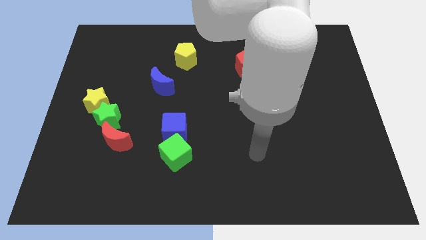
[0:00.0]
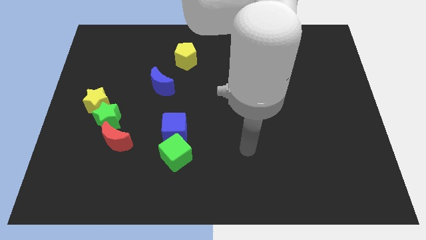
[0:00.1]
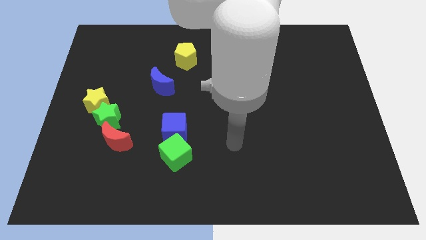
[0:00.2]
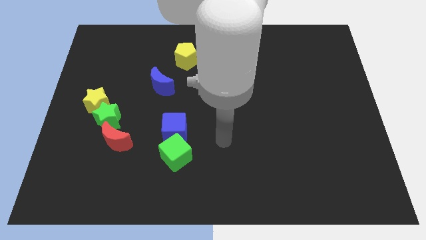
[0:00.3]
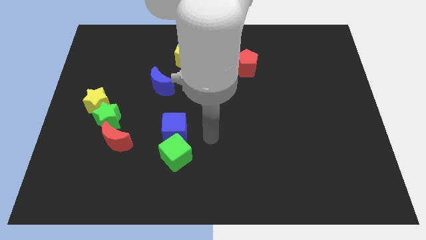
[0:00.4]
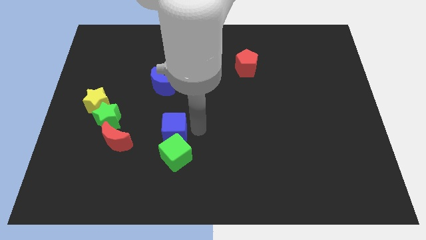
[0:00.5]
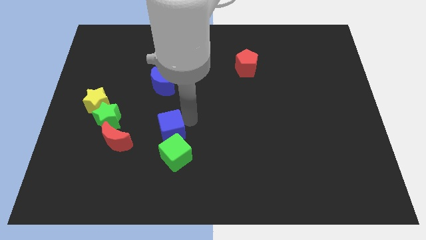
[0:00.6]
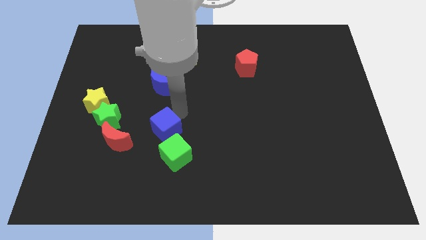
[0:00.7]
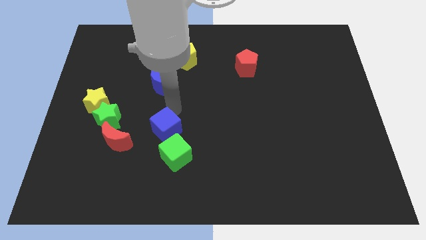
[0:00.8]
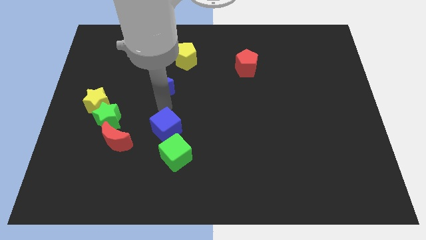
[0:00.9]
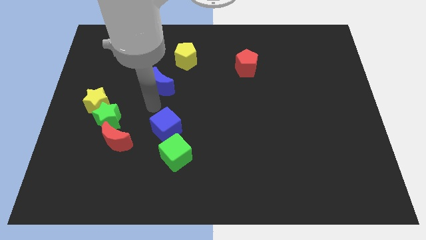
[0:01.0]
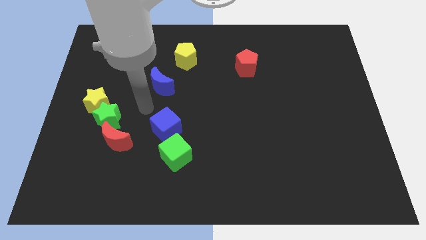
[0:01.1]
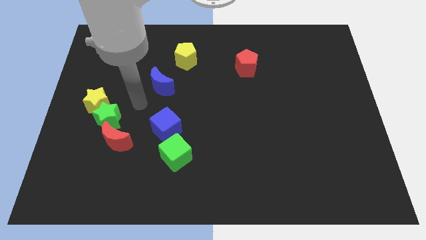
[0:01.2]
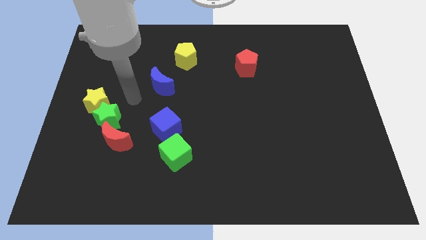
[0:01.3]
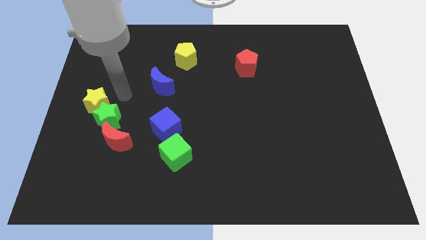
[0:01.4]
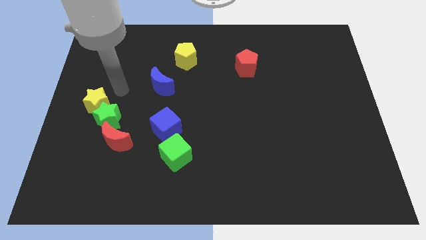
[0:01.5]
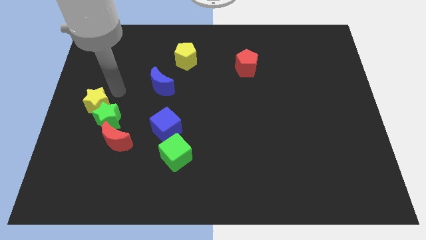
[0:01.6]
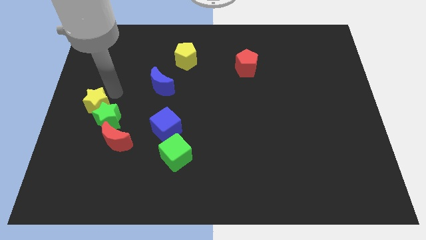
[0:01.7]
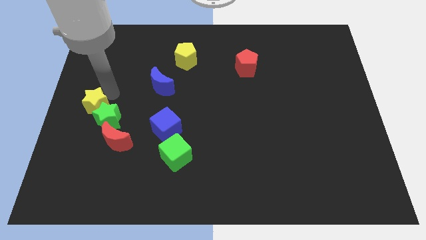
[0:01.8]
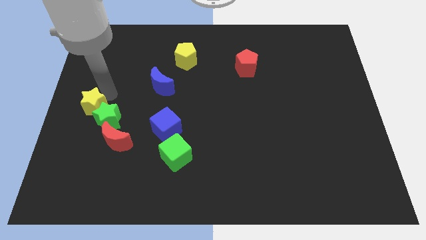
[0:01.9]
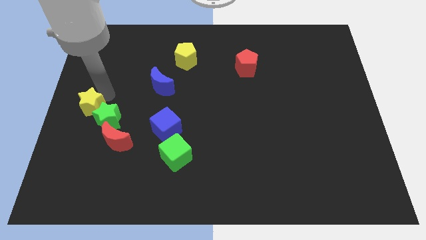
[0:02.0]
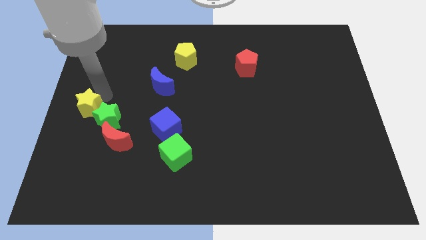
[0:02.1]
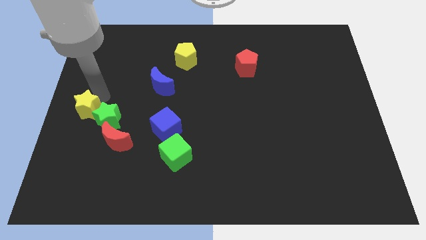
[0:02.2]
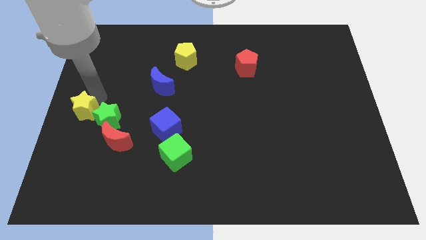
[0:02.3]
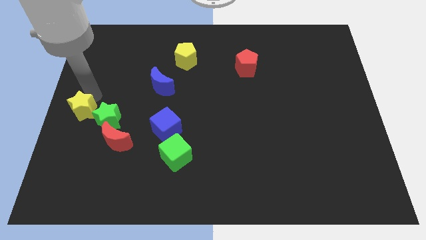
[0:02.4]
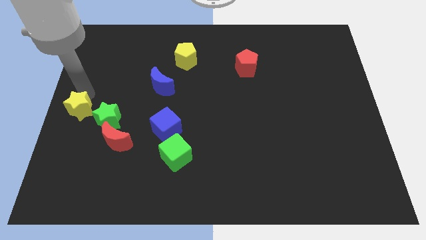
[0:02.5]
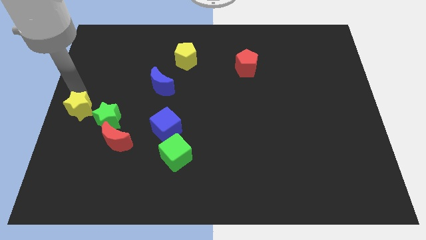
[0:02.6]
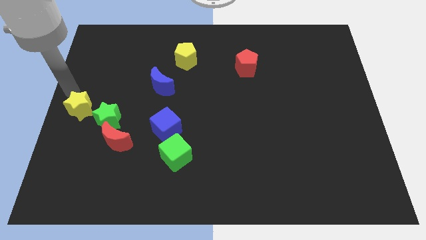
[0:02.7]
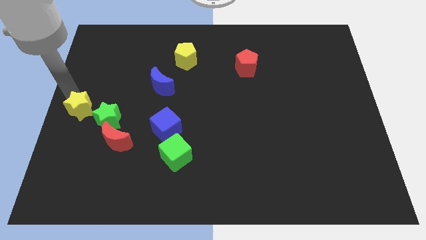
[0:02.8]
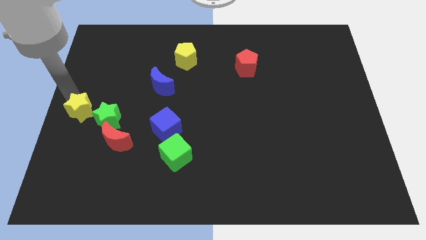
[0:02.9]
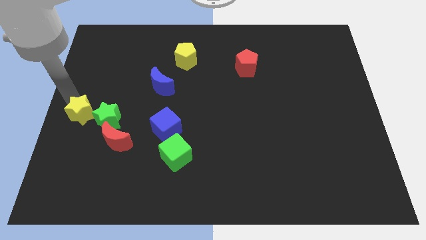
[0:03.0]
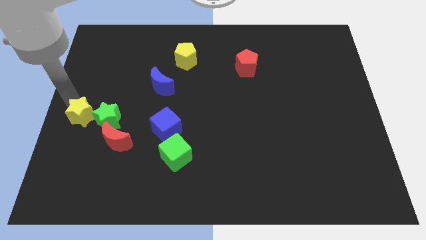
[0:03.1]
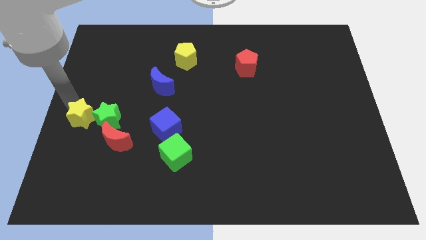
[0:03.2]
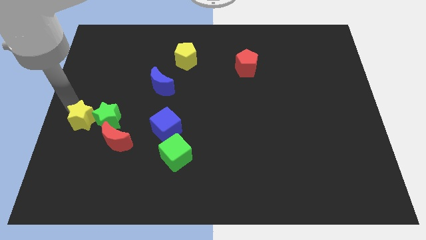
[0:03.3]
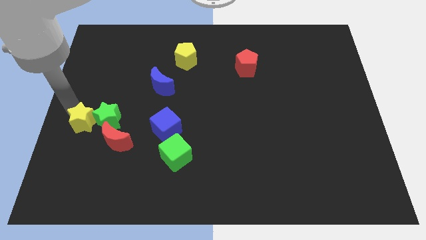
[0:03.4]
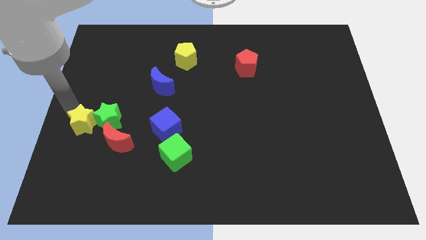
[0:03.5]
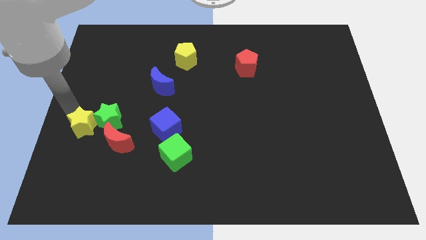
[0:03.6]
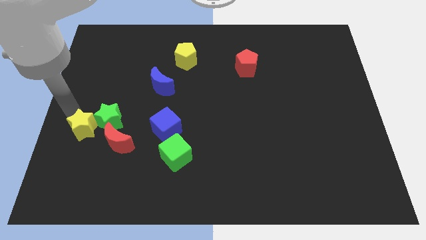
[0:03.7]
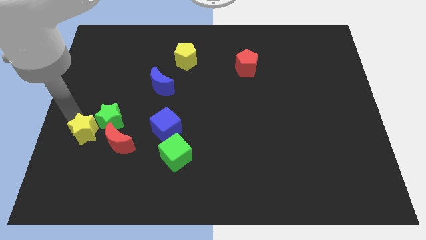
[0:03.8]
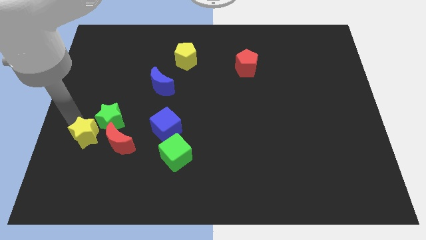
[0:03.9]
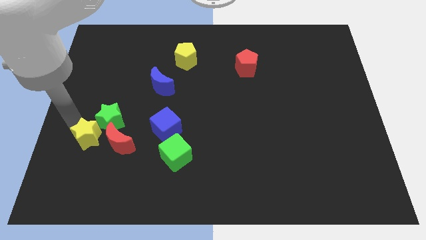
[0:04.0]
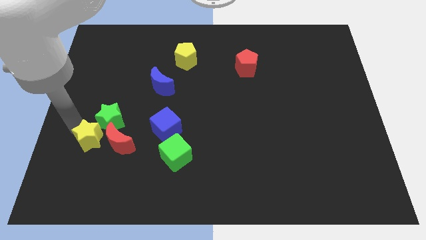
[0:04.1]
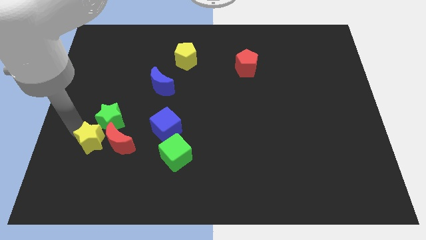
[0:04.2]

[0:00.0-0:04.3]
slide the yellow star towards the red moon

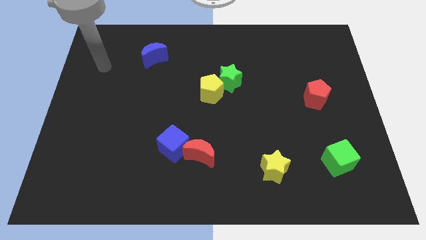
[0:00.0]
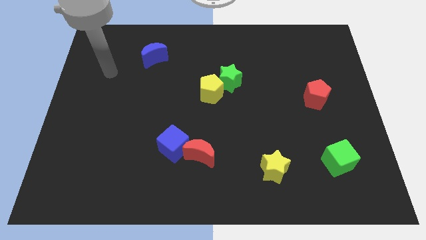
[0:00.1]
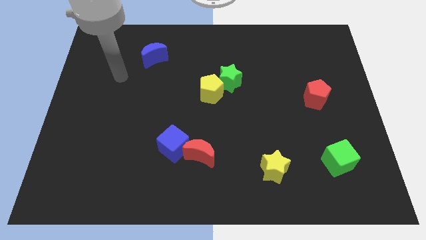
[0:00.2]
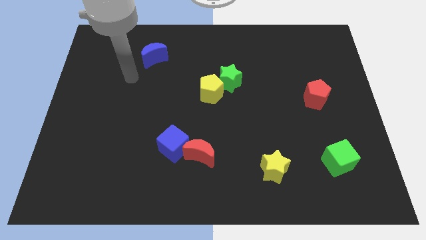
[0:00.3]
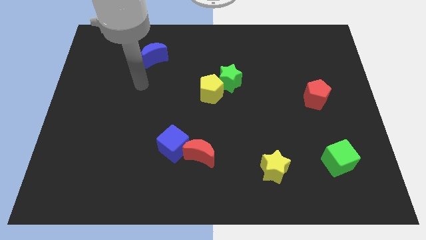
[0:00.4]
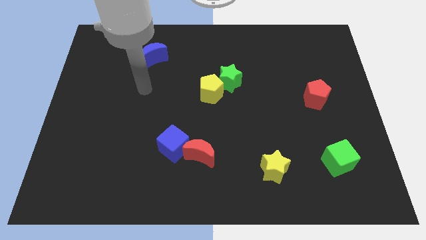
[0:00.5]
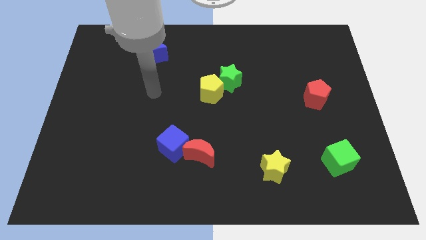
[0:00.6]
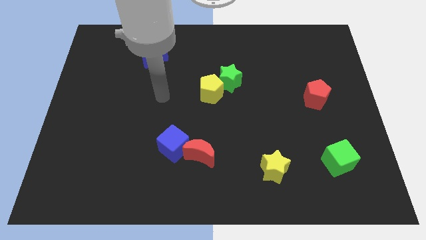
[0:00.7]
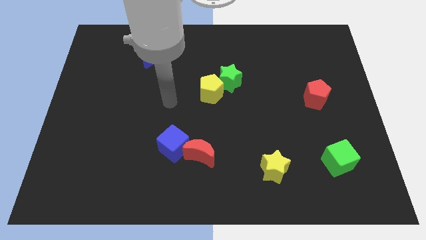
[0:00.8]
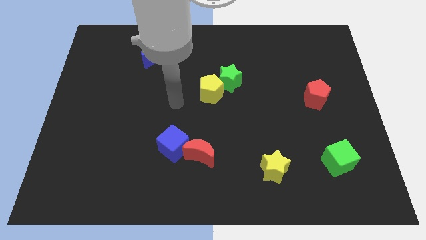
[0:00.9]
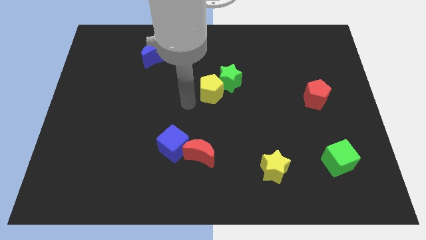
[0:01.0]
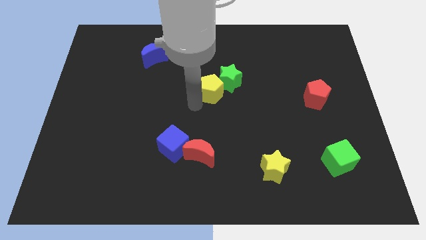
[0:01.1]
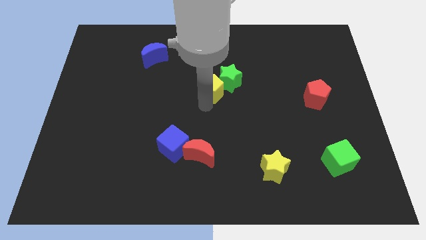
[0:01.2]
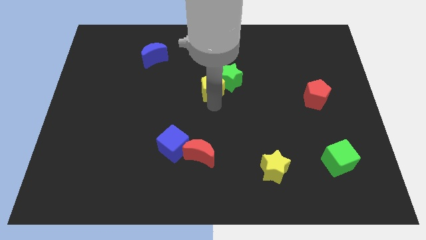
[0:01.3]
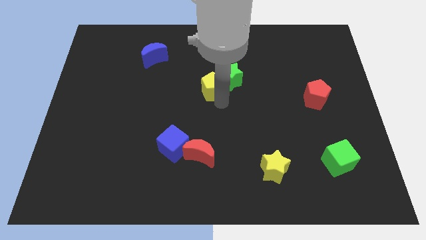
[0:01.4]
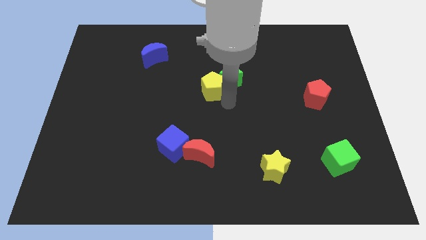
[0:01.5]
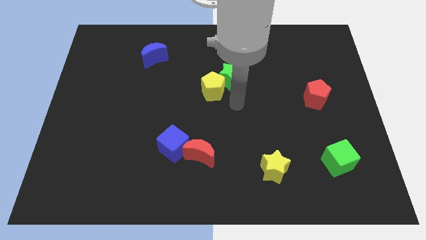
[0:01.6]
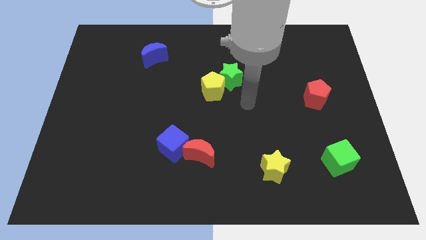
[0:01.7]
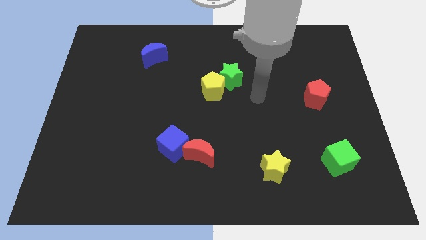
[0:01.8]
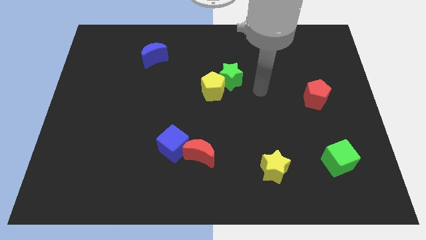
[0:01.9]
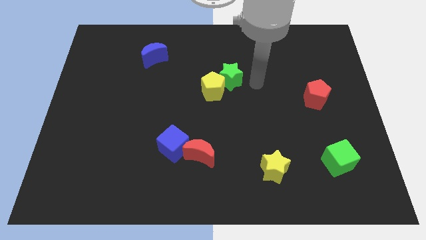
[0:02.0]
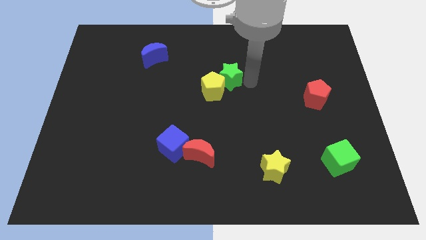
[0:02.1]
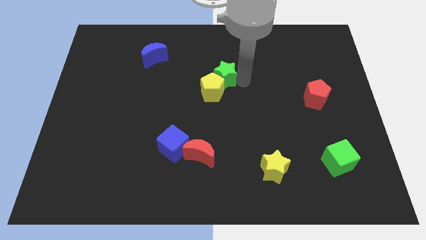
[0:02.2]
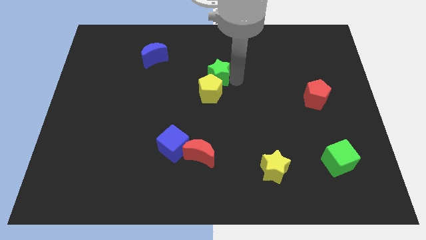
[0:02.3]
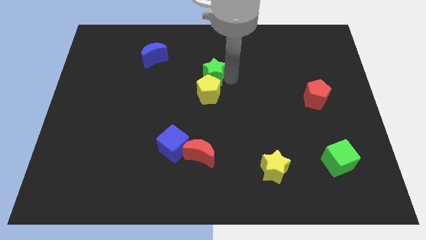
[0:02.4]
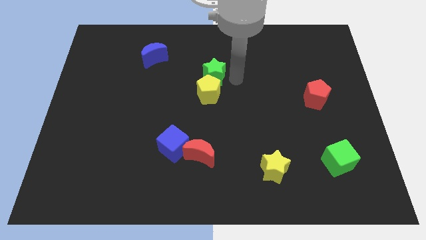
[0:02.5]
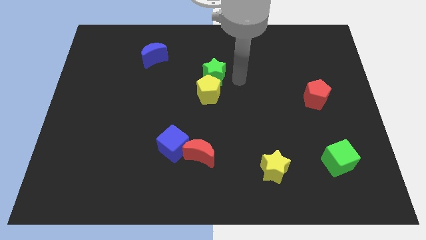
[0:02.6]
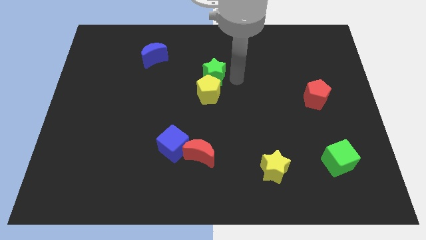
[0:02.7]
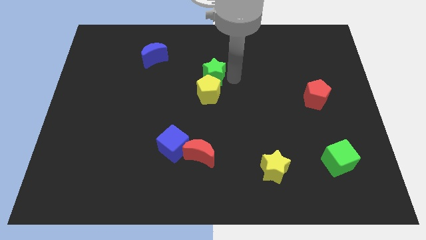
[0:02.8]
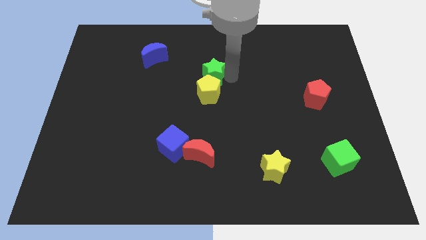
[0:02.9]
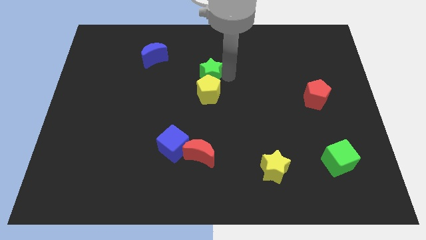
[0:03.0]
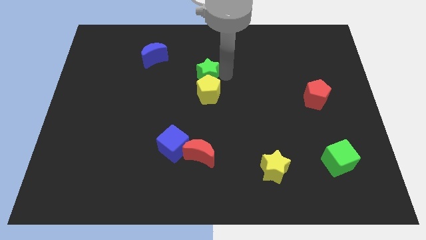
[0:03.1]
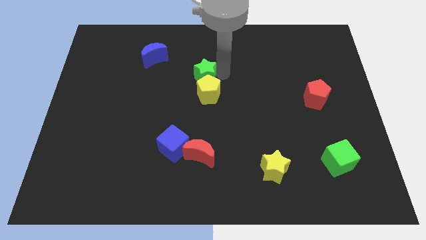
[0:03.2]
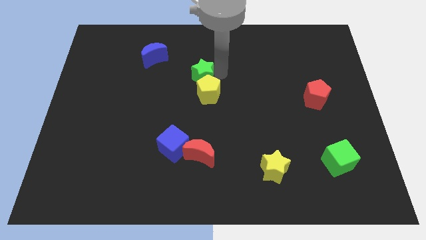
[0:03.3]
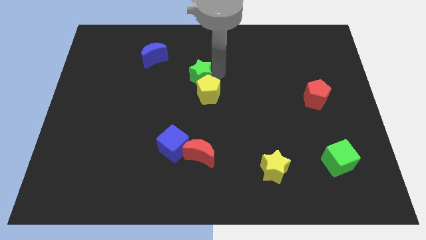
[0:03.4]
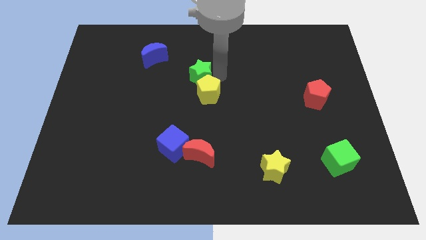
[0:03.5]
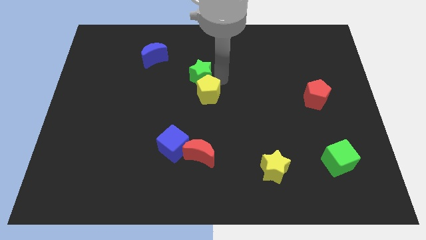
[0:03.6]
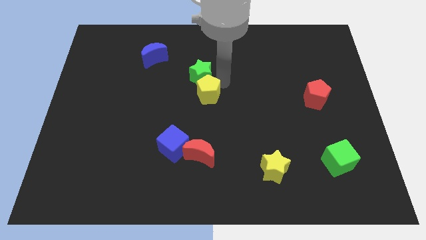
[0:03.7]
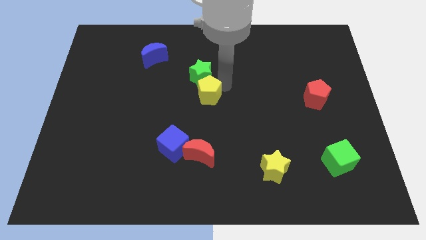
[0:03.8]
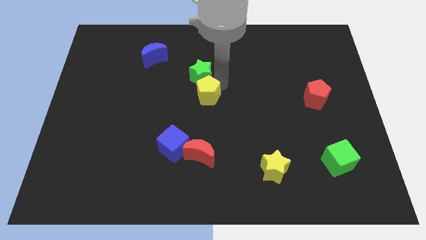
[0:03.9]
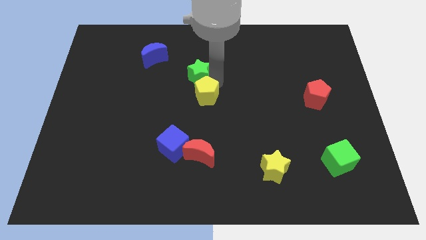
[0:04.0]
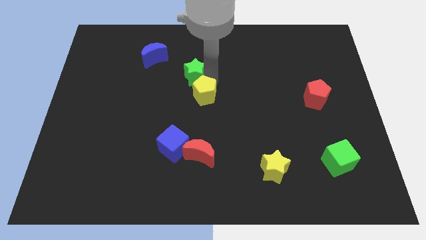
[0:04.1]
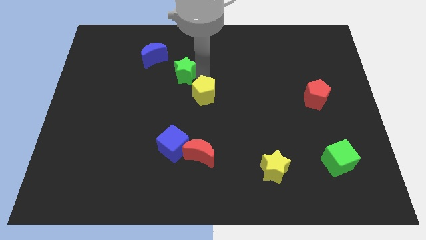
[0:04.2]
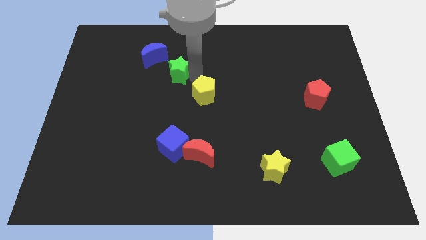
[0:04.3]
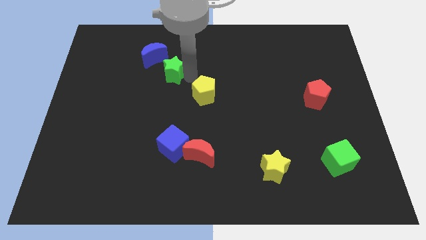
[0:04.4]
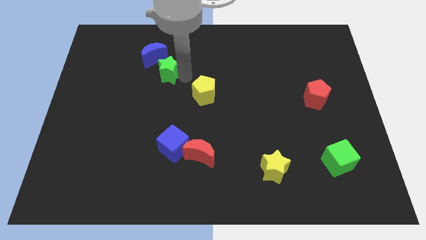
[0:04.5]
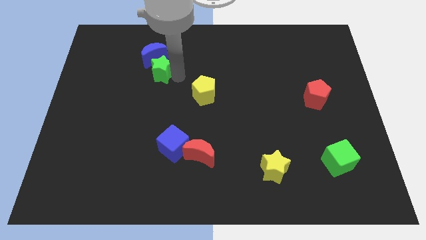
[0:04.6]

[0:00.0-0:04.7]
slide the green star towards the blue moon
